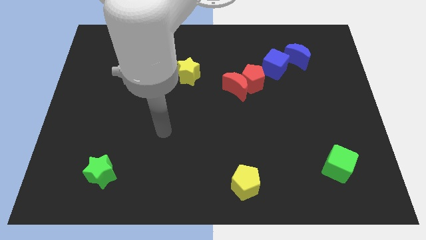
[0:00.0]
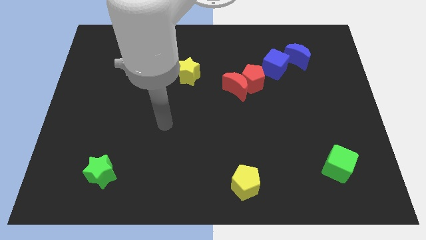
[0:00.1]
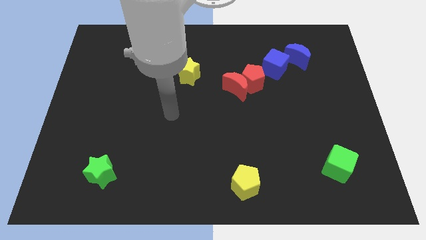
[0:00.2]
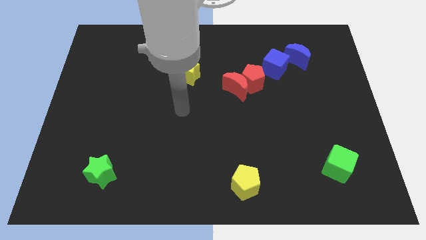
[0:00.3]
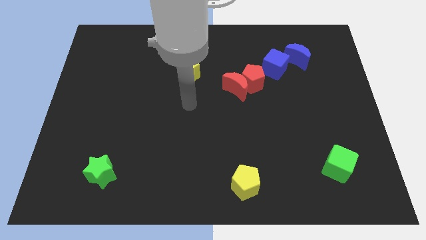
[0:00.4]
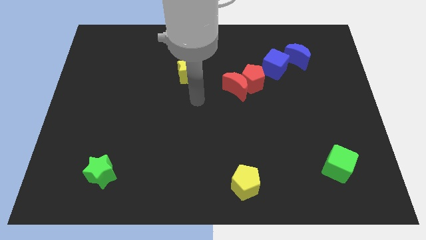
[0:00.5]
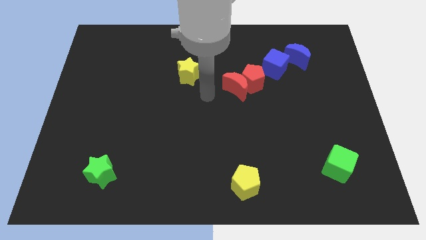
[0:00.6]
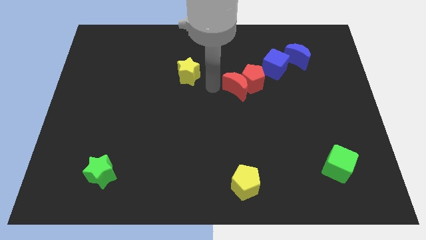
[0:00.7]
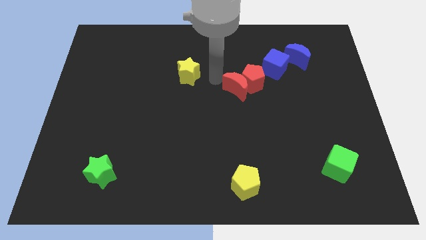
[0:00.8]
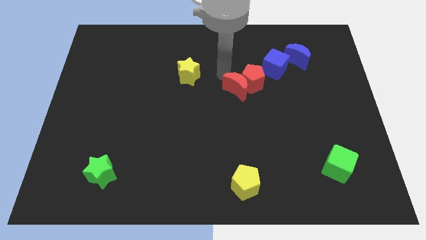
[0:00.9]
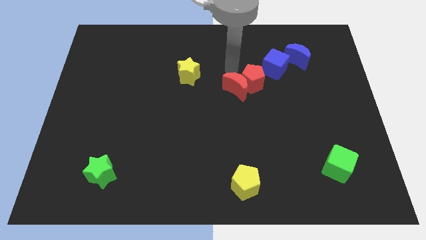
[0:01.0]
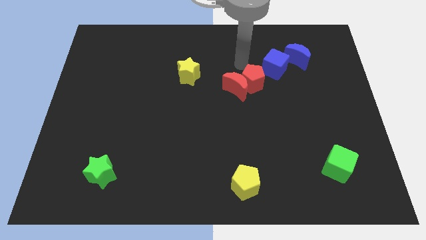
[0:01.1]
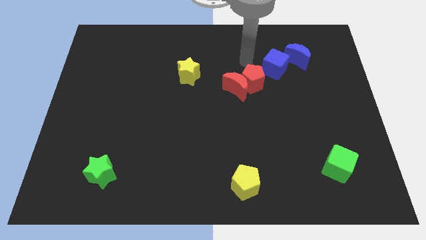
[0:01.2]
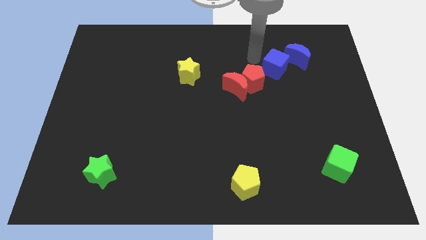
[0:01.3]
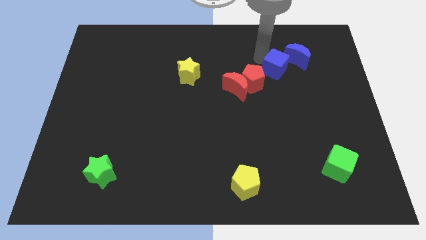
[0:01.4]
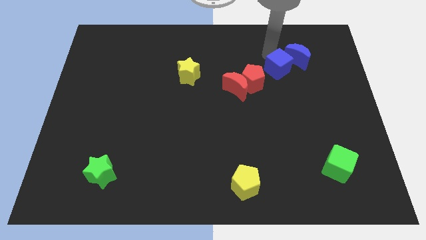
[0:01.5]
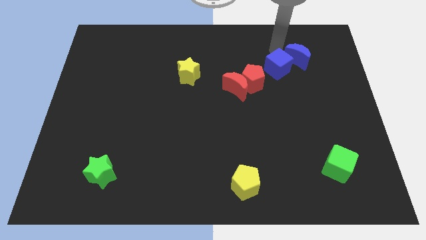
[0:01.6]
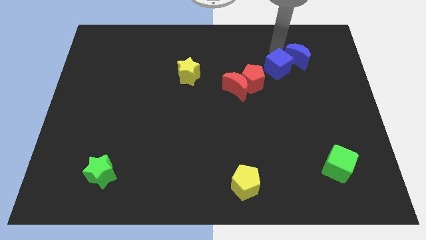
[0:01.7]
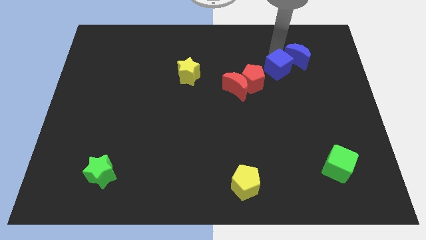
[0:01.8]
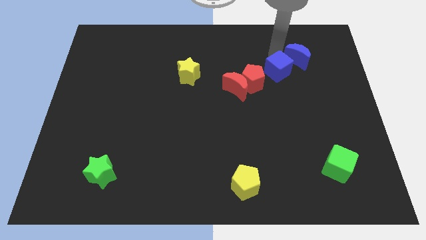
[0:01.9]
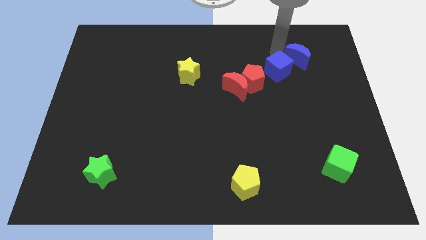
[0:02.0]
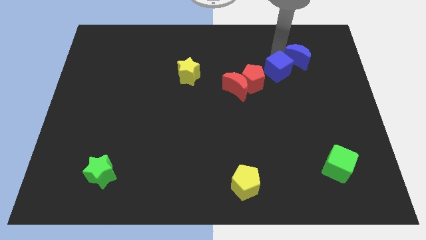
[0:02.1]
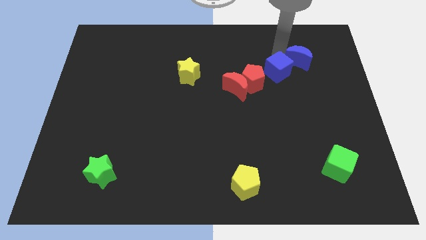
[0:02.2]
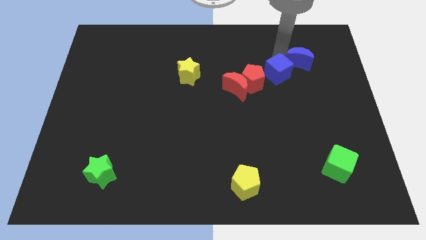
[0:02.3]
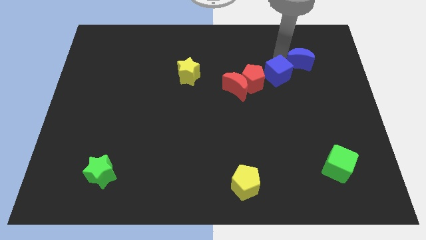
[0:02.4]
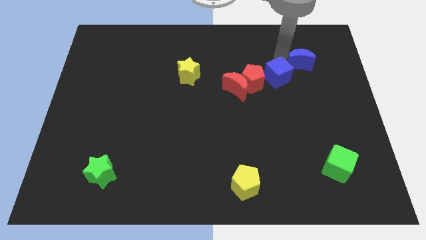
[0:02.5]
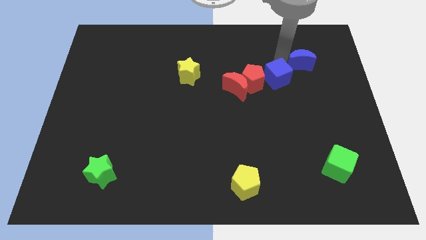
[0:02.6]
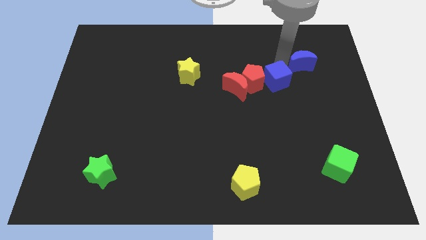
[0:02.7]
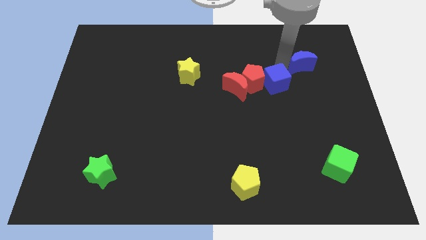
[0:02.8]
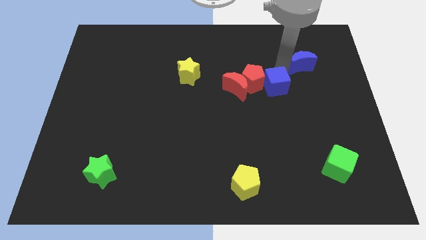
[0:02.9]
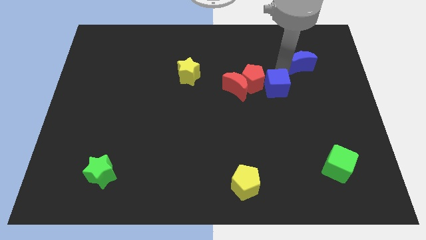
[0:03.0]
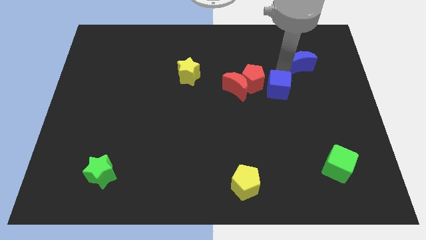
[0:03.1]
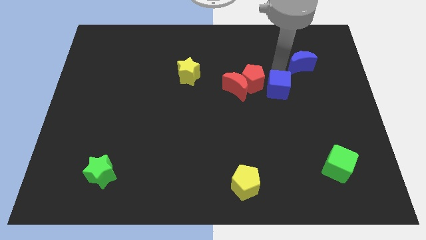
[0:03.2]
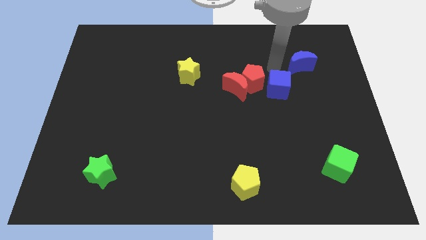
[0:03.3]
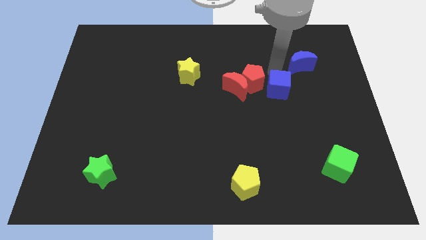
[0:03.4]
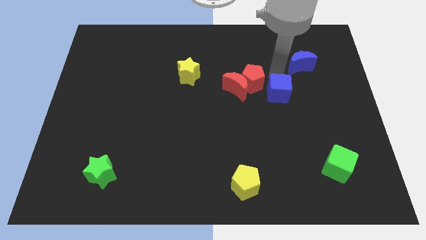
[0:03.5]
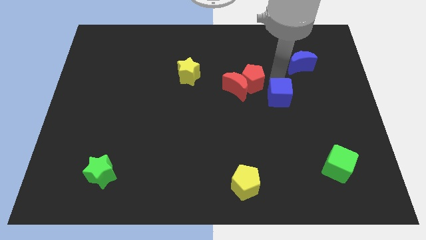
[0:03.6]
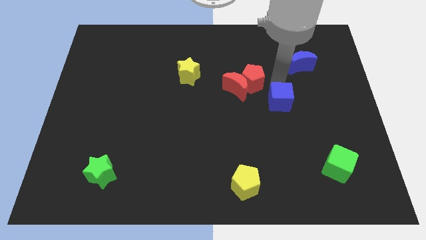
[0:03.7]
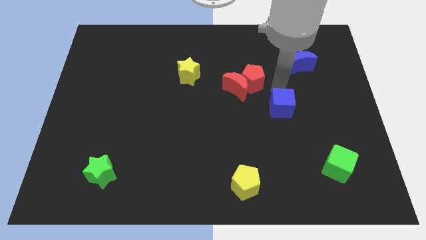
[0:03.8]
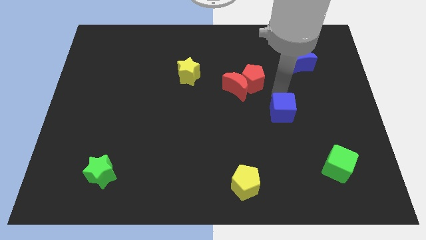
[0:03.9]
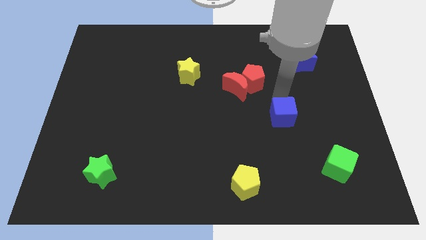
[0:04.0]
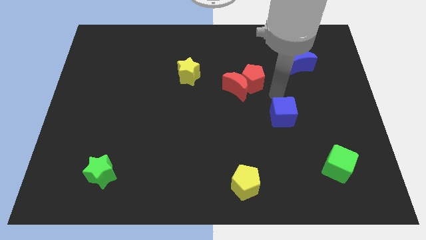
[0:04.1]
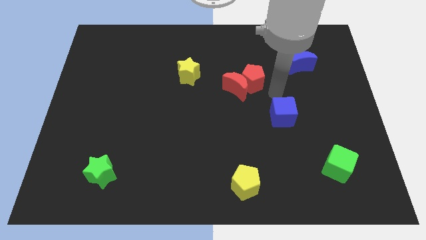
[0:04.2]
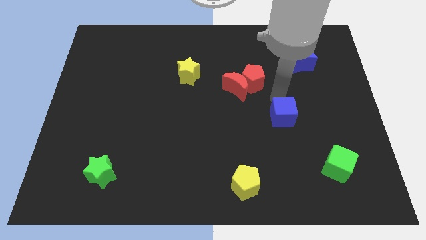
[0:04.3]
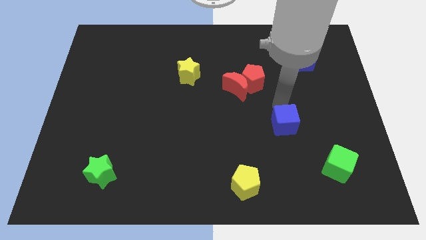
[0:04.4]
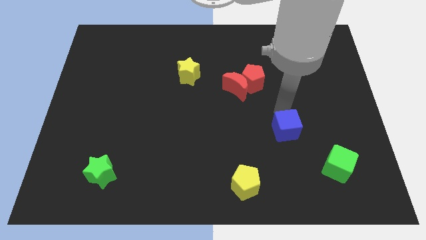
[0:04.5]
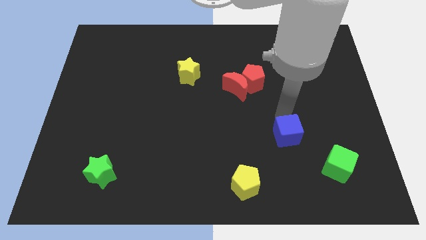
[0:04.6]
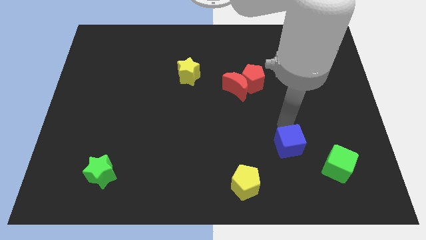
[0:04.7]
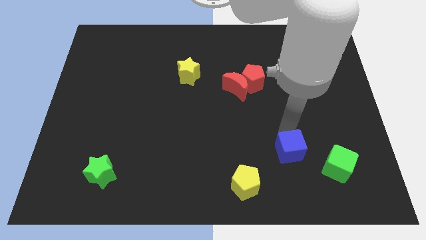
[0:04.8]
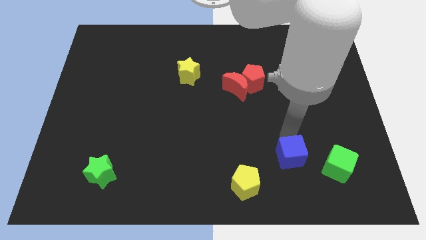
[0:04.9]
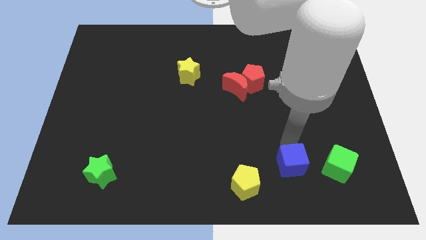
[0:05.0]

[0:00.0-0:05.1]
put the blue cube to the right of the yellow pentagon

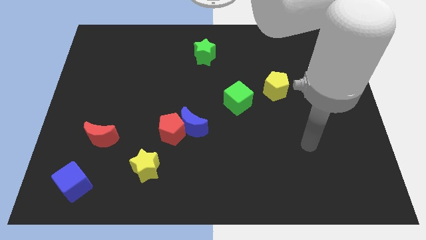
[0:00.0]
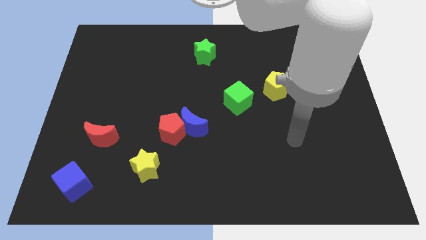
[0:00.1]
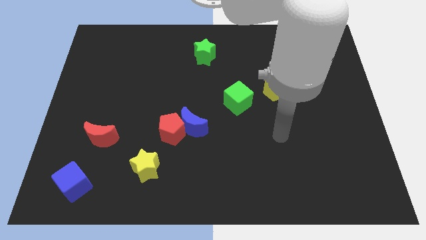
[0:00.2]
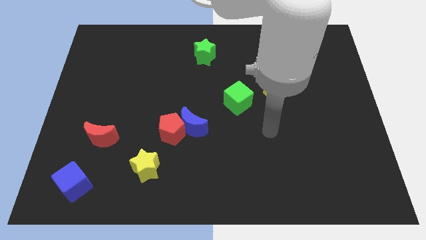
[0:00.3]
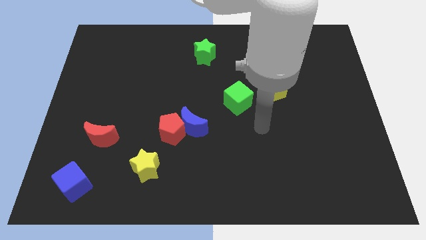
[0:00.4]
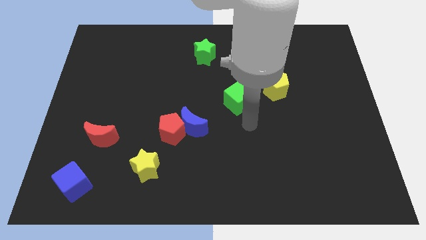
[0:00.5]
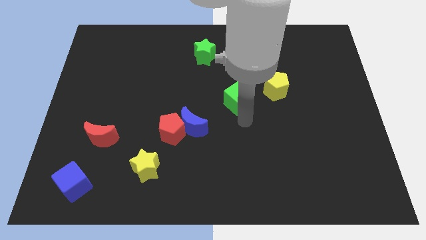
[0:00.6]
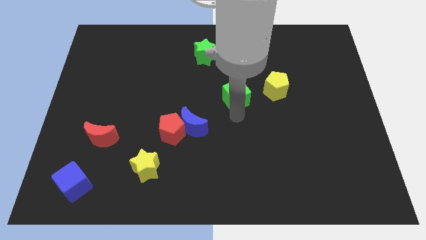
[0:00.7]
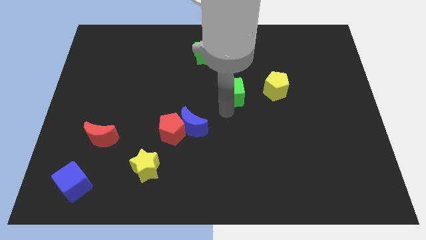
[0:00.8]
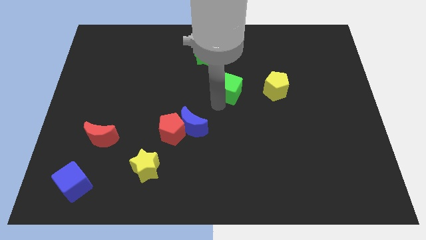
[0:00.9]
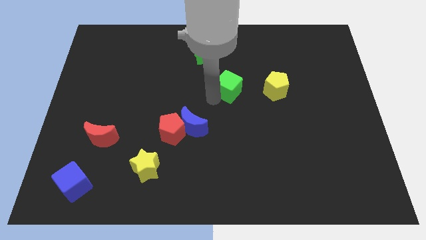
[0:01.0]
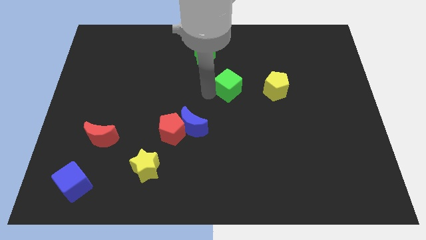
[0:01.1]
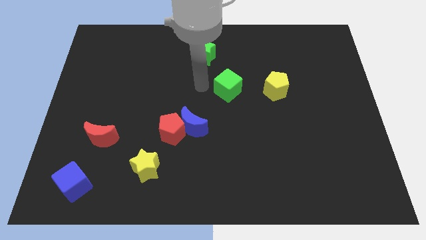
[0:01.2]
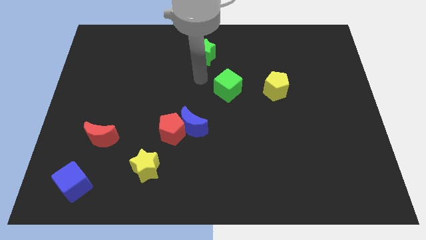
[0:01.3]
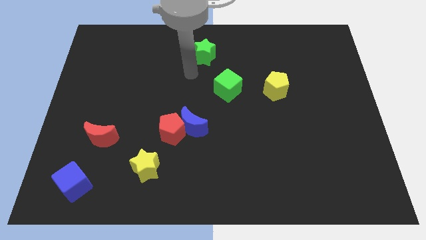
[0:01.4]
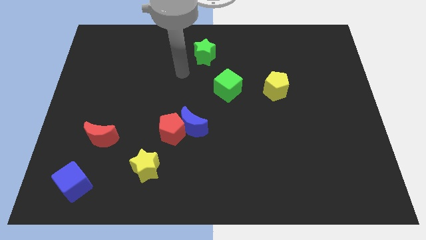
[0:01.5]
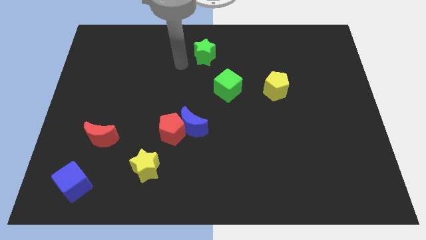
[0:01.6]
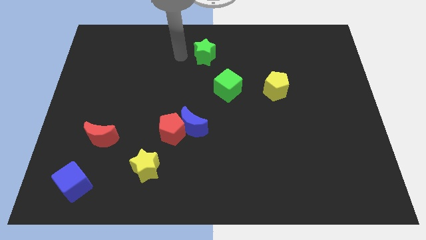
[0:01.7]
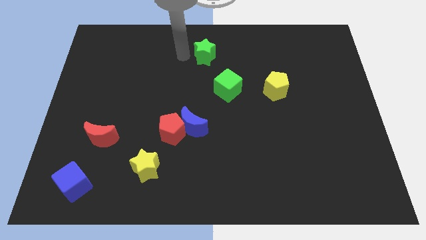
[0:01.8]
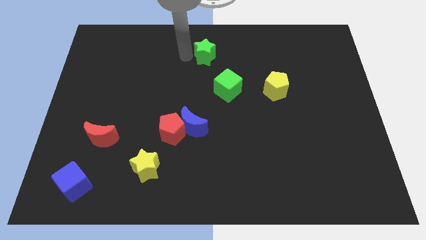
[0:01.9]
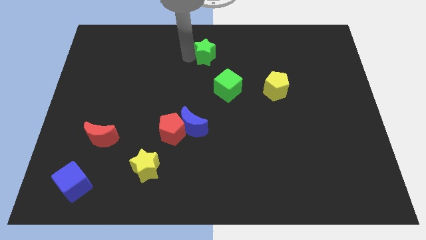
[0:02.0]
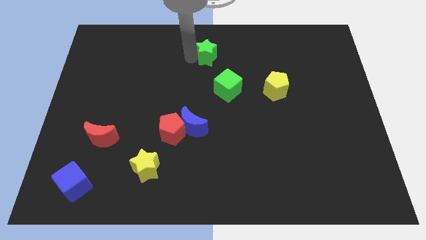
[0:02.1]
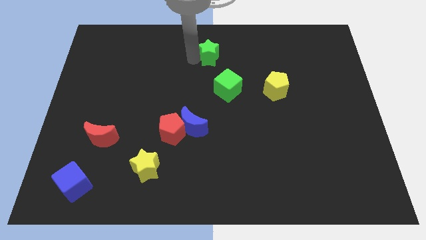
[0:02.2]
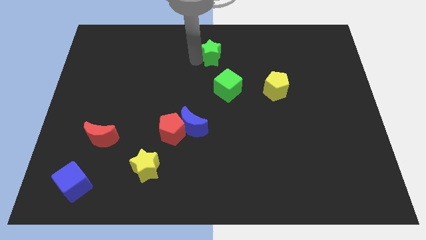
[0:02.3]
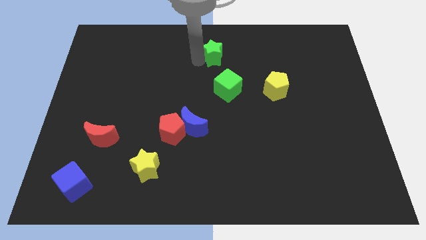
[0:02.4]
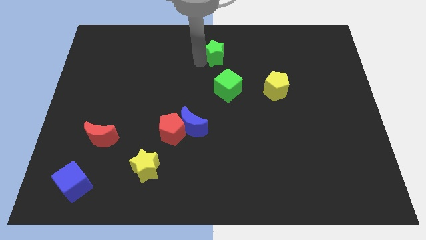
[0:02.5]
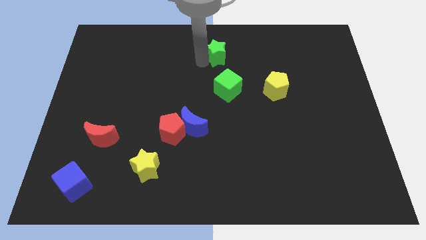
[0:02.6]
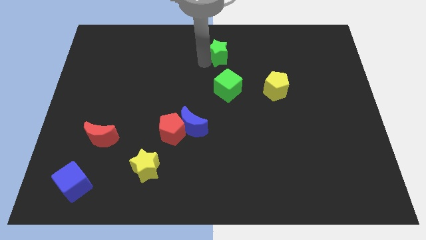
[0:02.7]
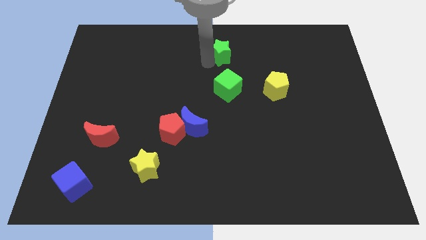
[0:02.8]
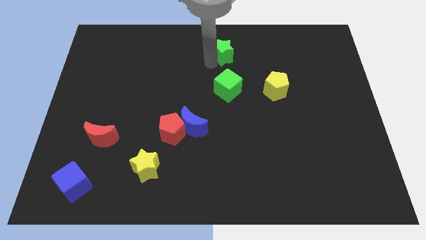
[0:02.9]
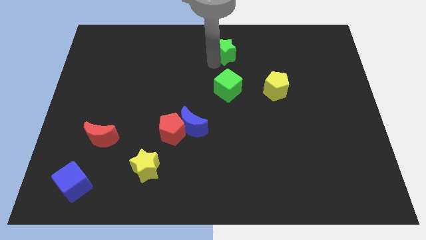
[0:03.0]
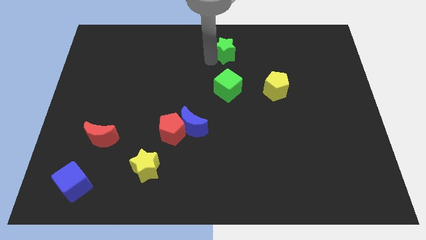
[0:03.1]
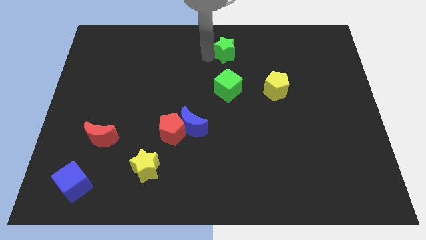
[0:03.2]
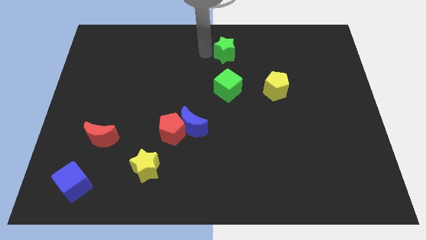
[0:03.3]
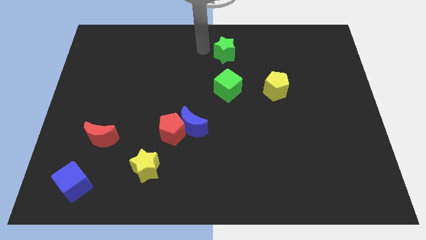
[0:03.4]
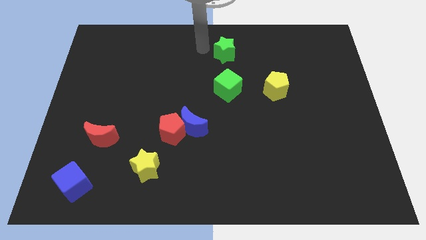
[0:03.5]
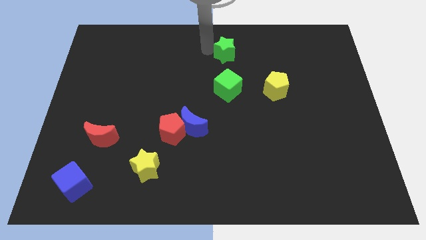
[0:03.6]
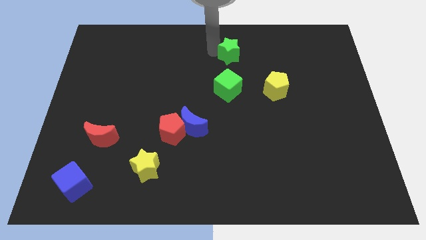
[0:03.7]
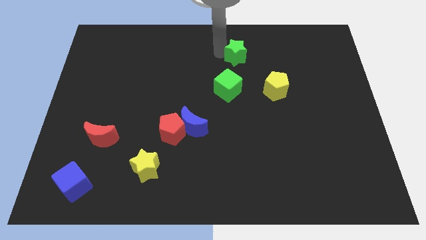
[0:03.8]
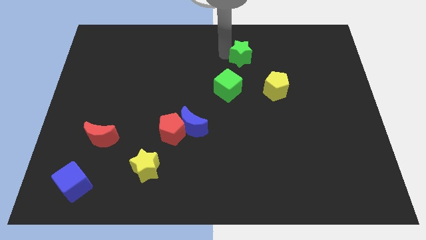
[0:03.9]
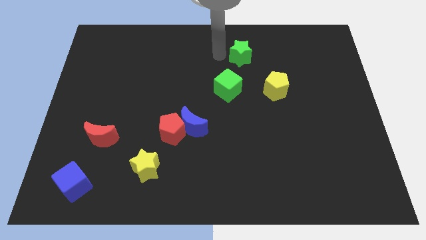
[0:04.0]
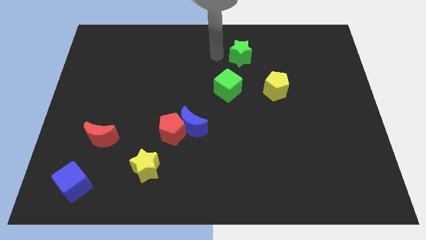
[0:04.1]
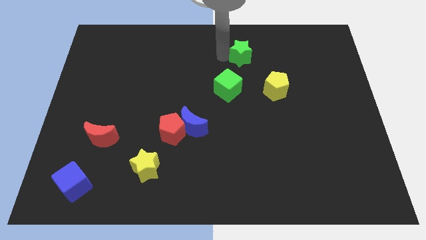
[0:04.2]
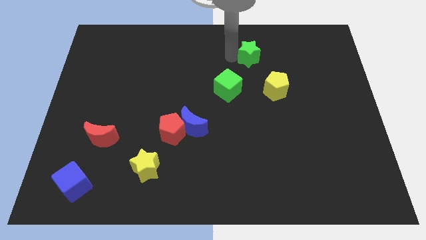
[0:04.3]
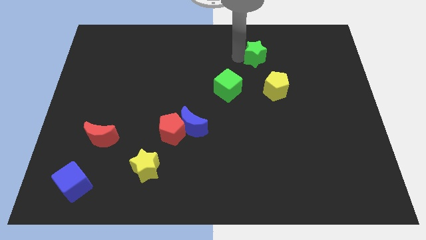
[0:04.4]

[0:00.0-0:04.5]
push the green star to the top side of the yellow pentagon
